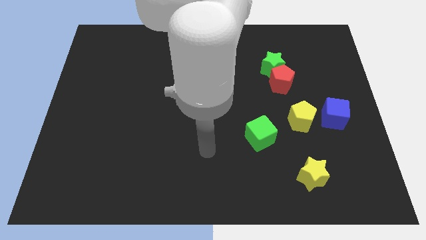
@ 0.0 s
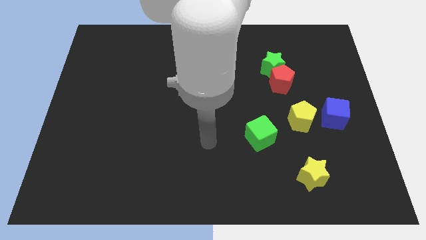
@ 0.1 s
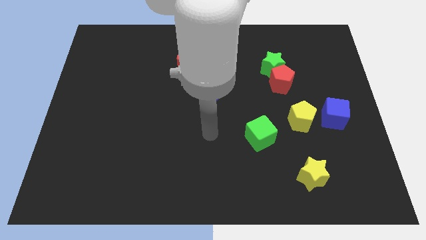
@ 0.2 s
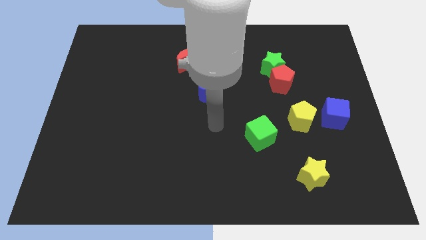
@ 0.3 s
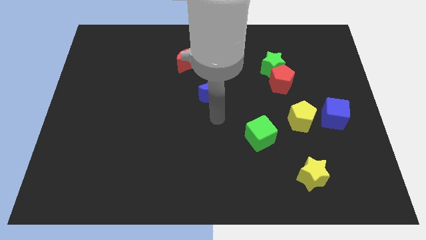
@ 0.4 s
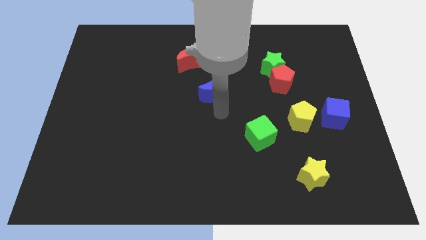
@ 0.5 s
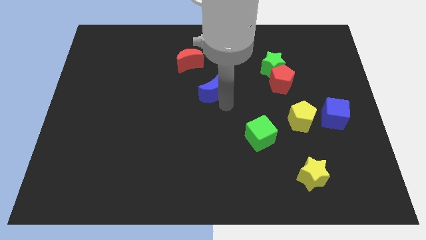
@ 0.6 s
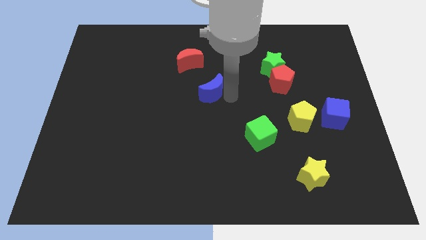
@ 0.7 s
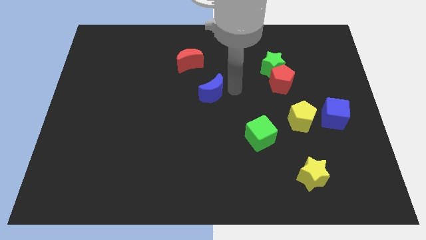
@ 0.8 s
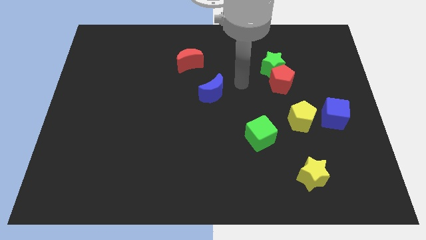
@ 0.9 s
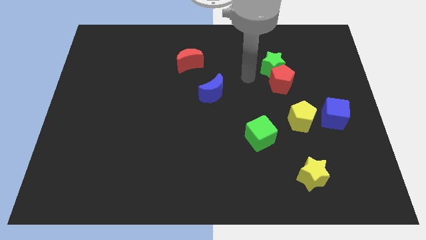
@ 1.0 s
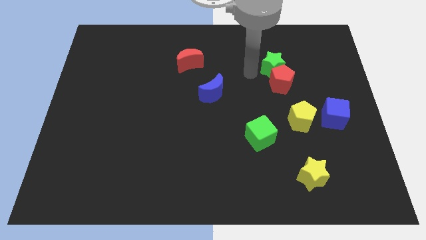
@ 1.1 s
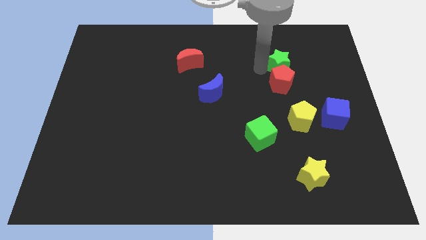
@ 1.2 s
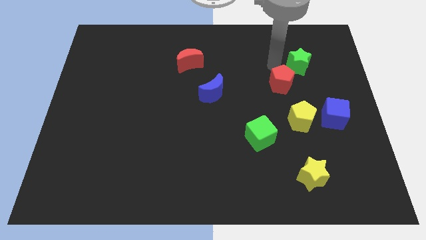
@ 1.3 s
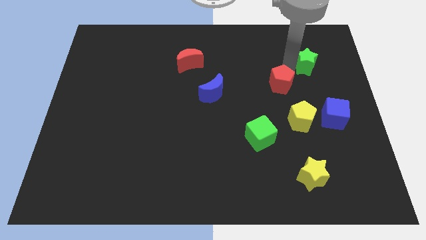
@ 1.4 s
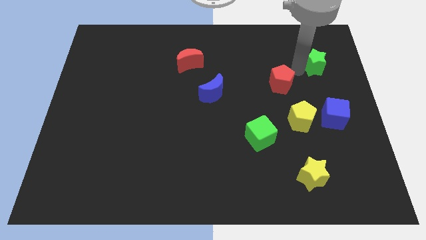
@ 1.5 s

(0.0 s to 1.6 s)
move the red pentagon away from the green star

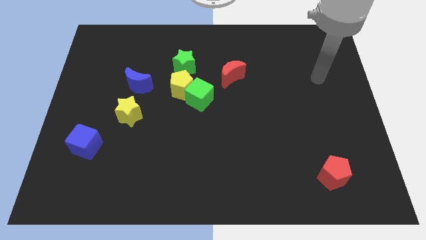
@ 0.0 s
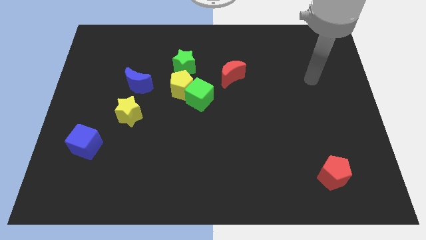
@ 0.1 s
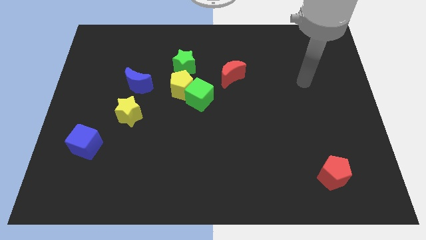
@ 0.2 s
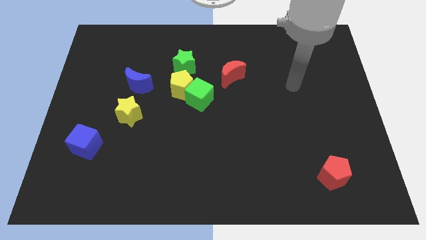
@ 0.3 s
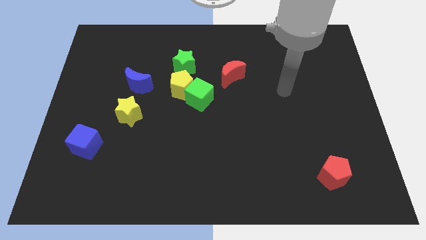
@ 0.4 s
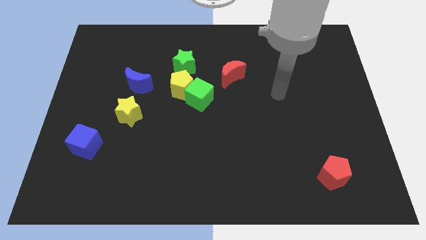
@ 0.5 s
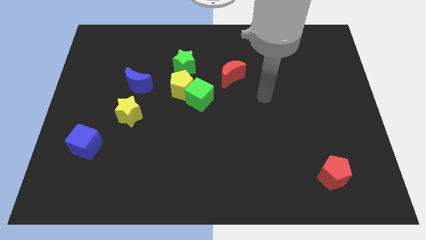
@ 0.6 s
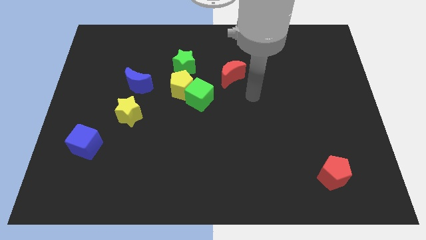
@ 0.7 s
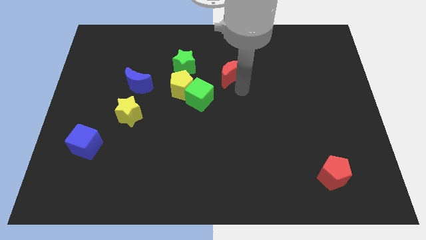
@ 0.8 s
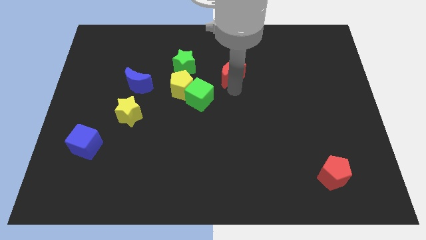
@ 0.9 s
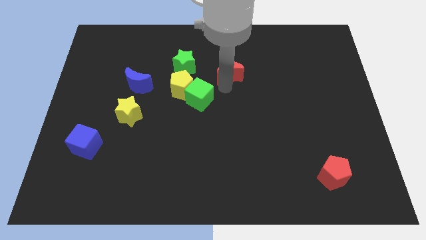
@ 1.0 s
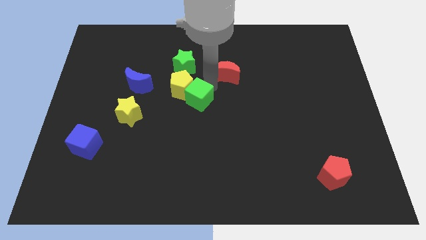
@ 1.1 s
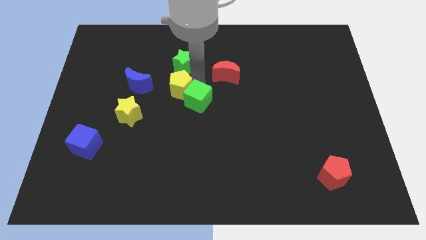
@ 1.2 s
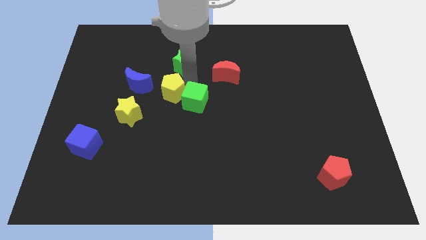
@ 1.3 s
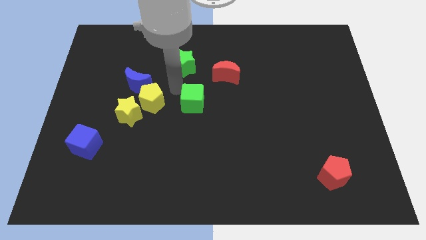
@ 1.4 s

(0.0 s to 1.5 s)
move the green cube away from the yellow pentagon

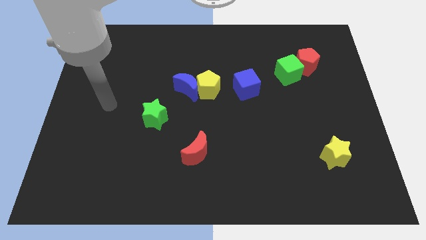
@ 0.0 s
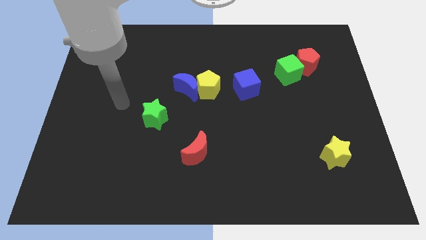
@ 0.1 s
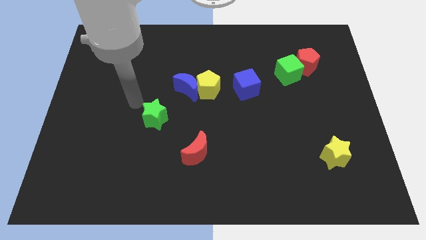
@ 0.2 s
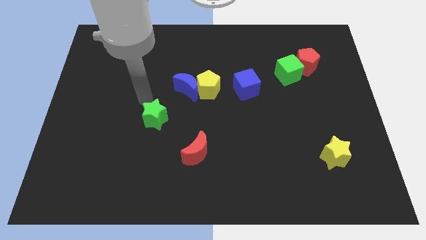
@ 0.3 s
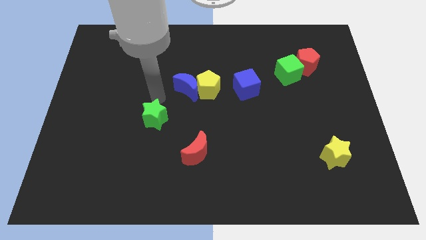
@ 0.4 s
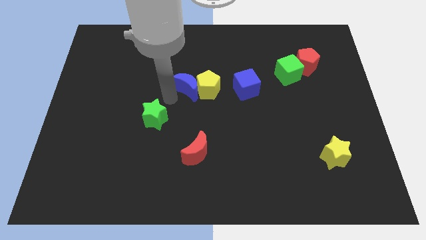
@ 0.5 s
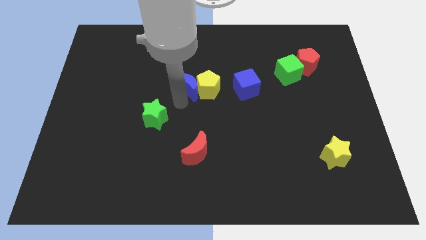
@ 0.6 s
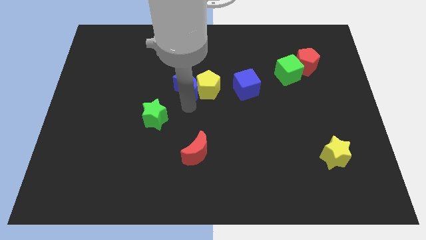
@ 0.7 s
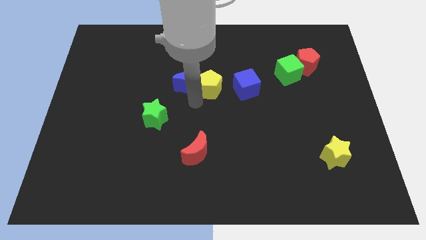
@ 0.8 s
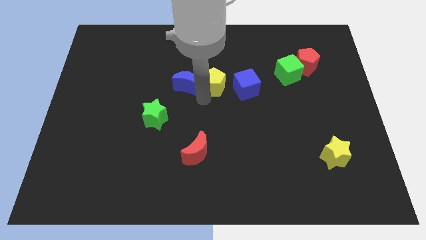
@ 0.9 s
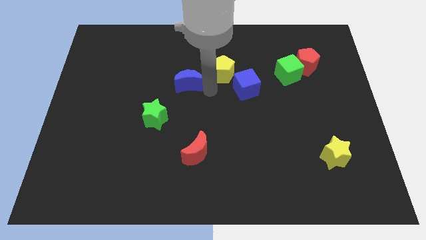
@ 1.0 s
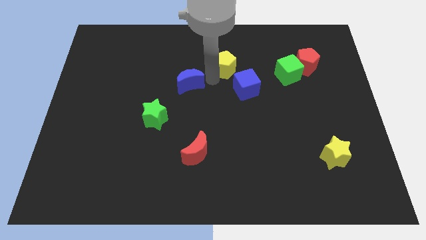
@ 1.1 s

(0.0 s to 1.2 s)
pull the blue moon apart from the yellow pentagon

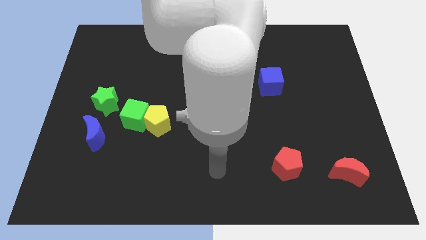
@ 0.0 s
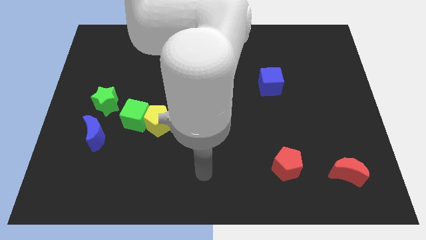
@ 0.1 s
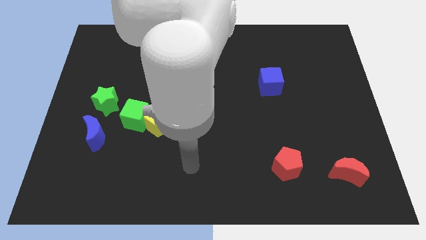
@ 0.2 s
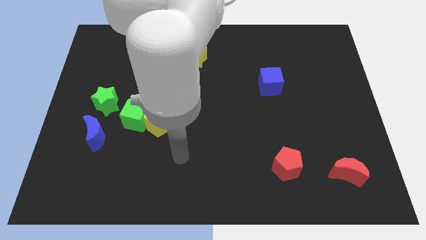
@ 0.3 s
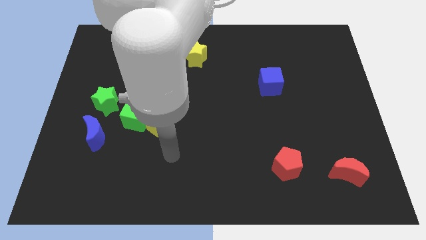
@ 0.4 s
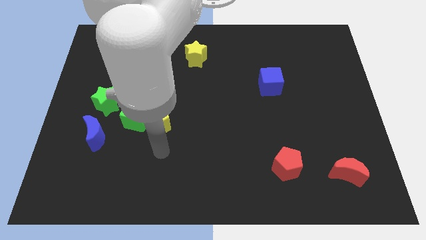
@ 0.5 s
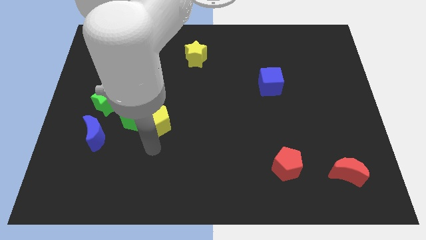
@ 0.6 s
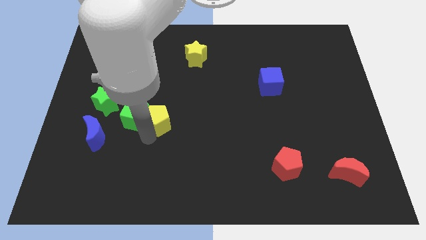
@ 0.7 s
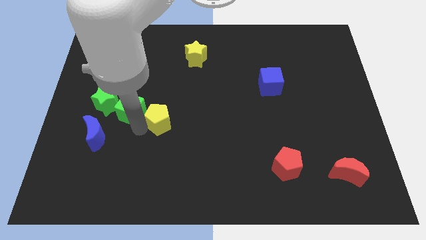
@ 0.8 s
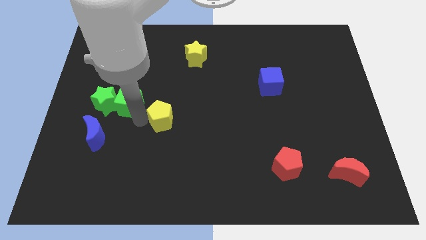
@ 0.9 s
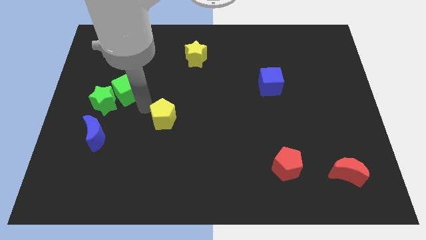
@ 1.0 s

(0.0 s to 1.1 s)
separate the yellow pentagon from the green cube

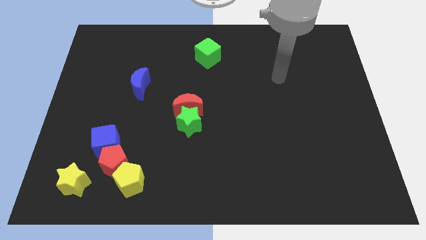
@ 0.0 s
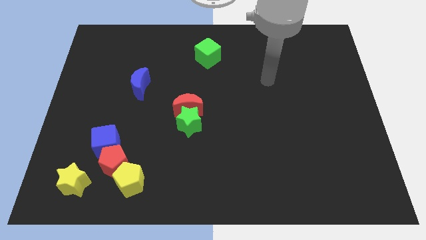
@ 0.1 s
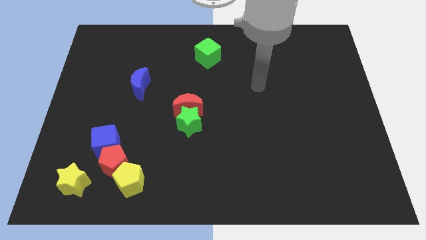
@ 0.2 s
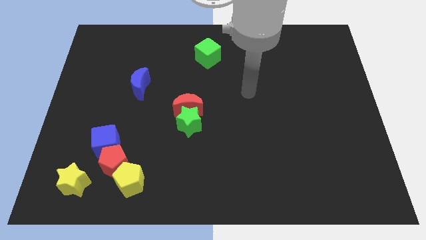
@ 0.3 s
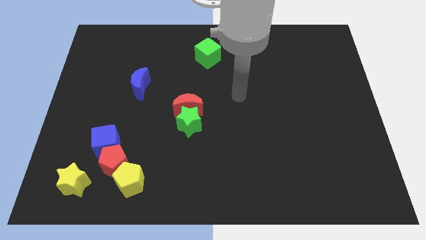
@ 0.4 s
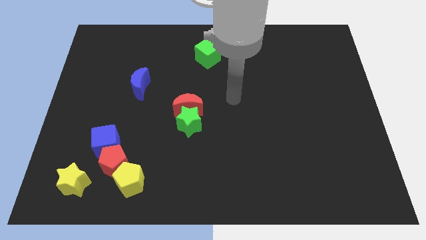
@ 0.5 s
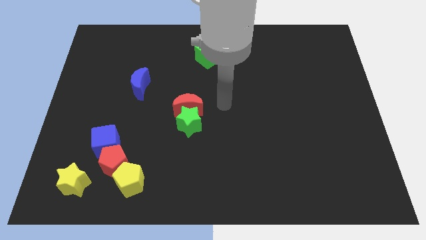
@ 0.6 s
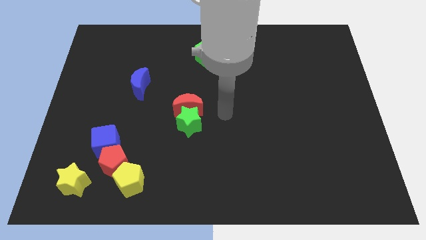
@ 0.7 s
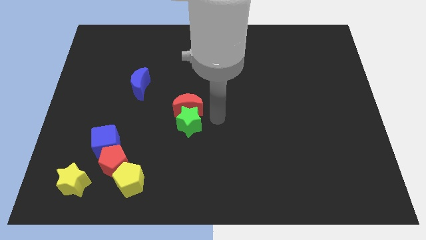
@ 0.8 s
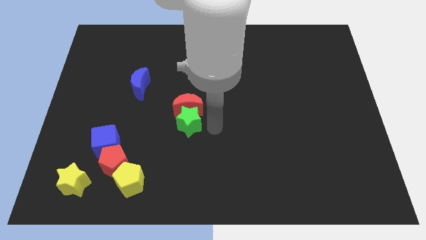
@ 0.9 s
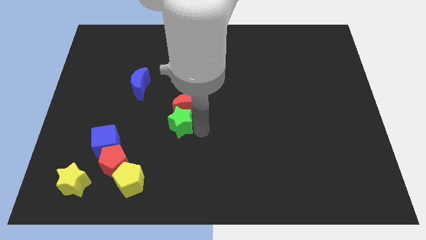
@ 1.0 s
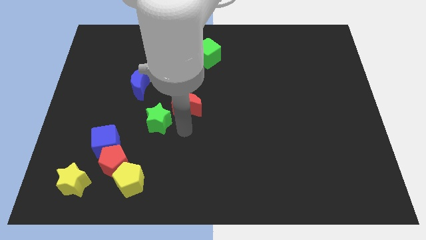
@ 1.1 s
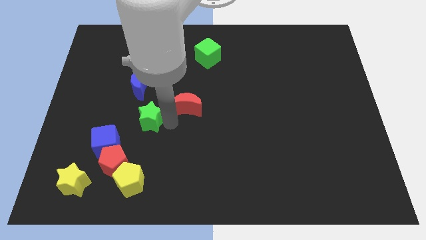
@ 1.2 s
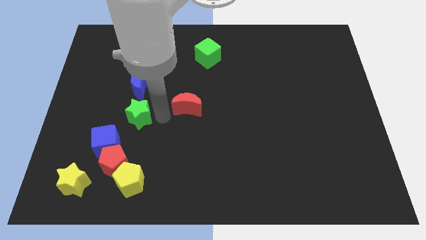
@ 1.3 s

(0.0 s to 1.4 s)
separate the red moon from the green star

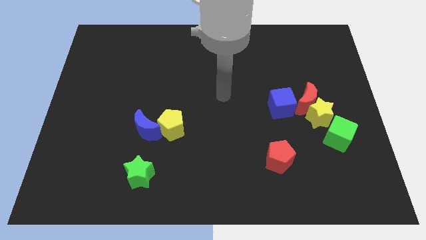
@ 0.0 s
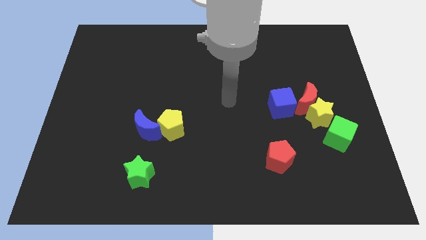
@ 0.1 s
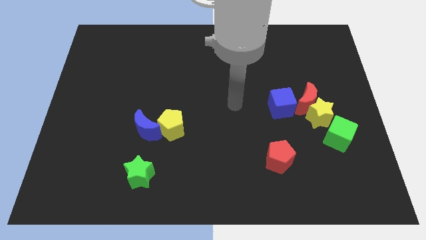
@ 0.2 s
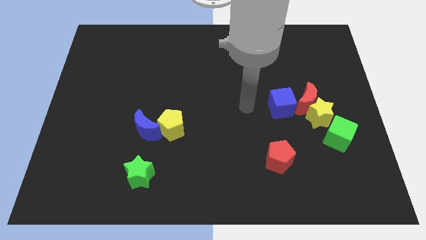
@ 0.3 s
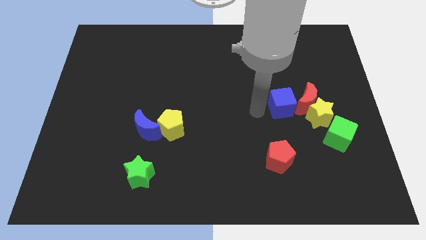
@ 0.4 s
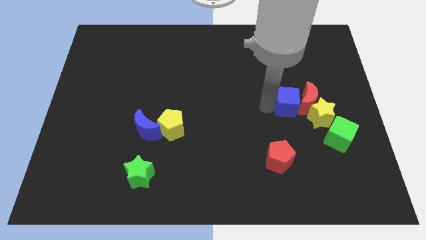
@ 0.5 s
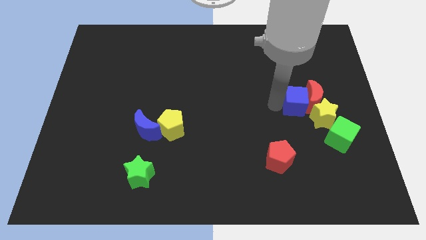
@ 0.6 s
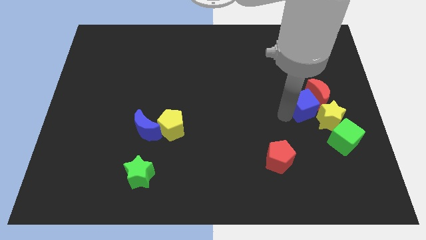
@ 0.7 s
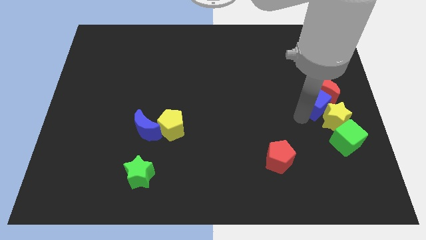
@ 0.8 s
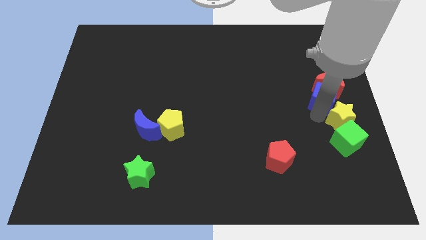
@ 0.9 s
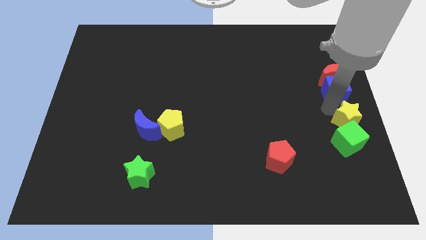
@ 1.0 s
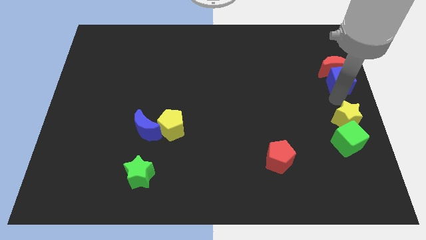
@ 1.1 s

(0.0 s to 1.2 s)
pull the red moon apart from the yellow star and blue cube

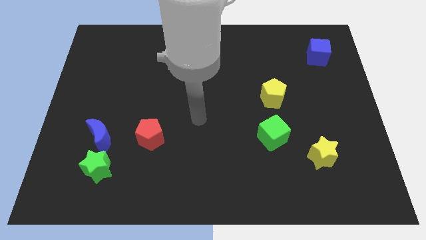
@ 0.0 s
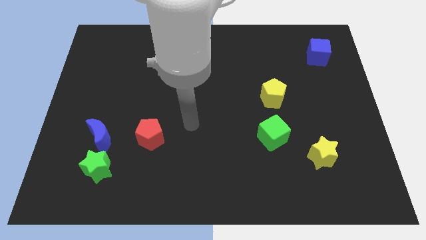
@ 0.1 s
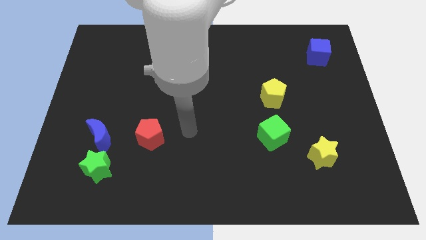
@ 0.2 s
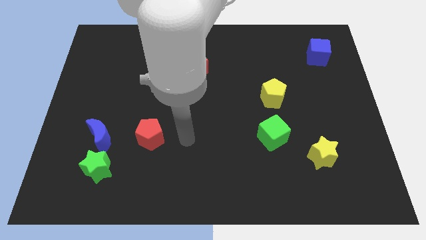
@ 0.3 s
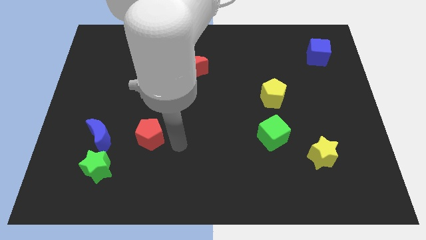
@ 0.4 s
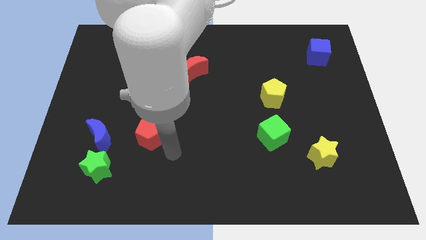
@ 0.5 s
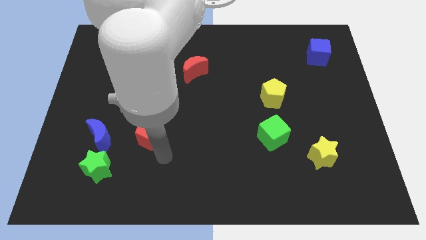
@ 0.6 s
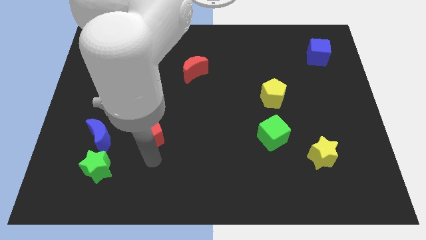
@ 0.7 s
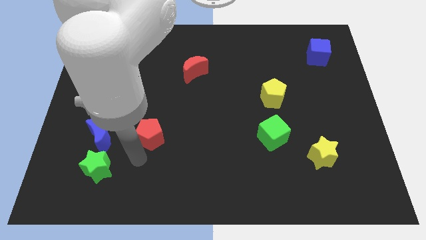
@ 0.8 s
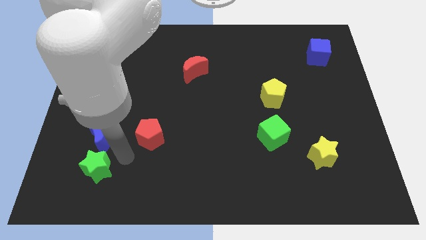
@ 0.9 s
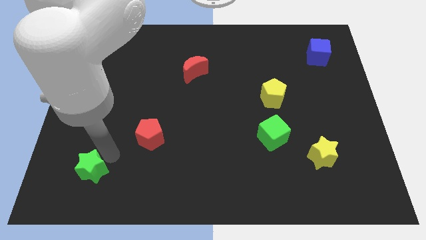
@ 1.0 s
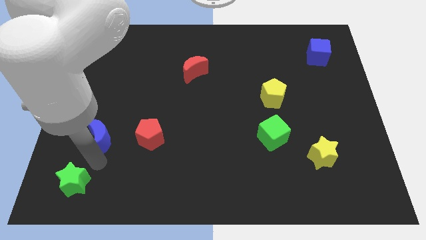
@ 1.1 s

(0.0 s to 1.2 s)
move the blue moon away from the green star

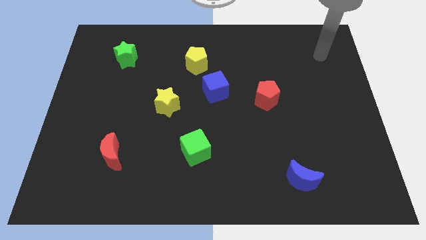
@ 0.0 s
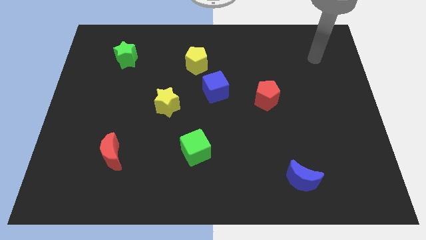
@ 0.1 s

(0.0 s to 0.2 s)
move the blue cube away from the yellow pentagon
